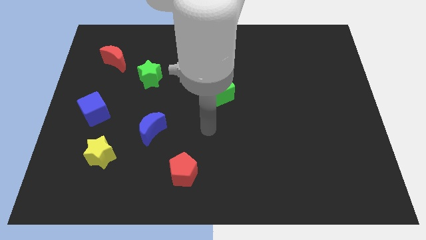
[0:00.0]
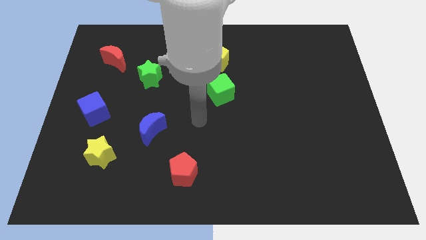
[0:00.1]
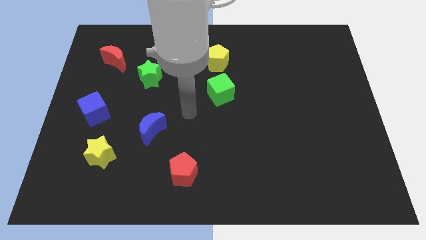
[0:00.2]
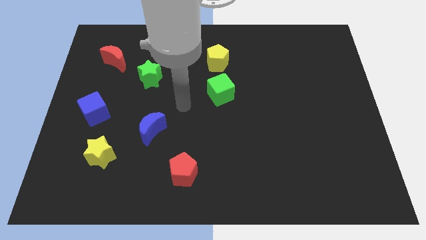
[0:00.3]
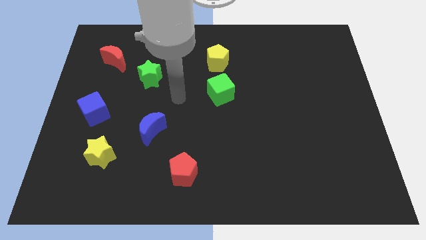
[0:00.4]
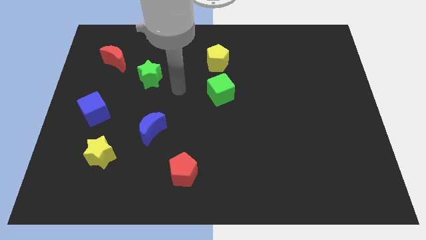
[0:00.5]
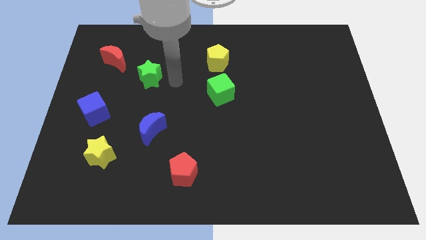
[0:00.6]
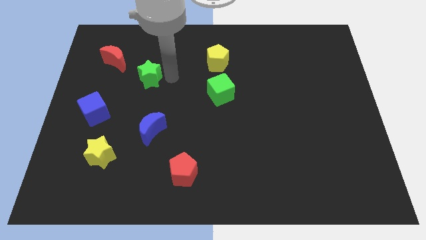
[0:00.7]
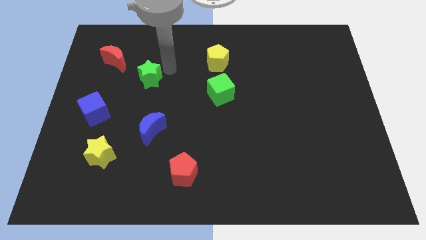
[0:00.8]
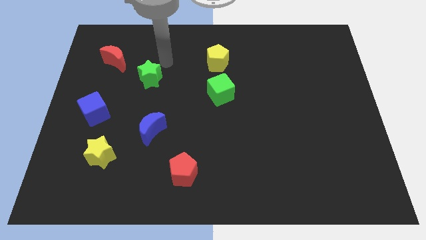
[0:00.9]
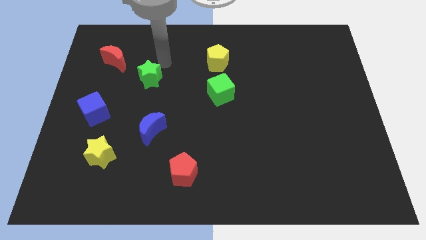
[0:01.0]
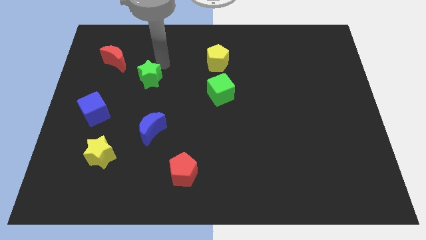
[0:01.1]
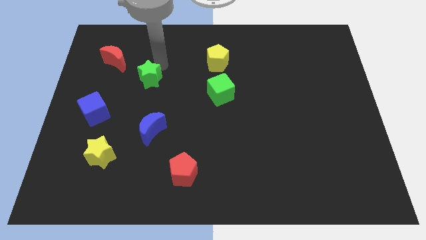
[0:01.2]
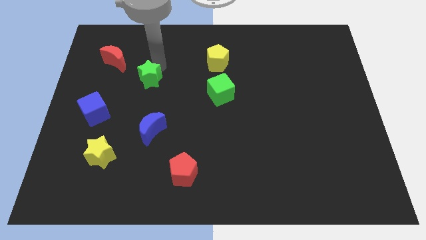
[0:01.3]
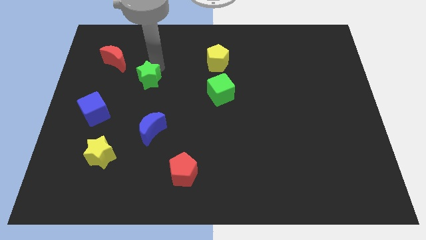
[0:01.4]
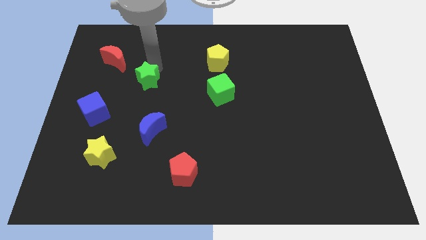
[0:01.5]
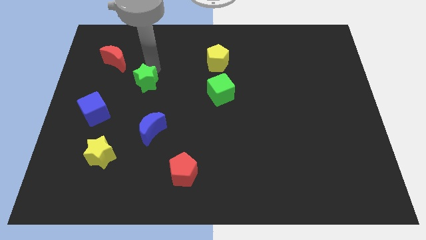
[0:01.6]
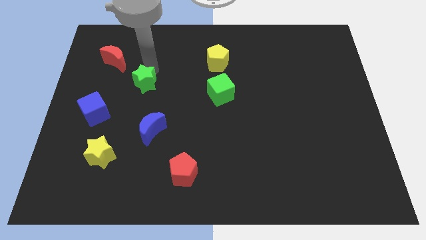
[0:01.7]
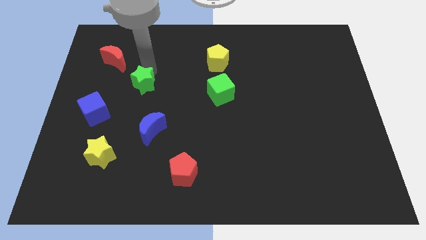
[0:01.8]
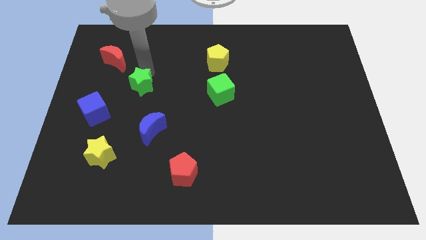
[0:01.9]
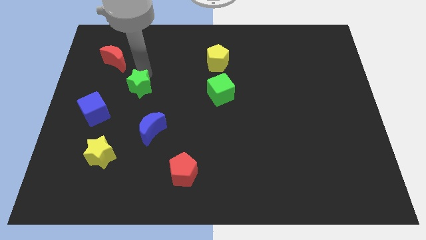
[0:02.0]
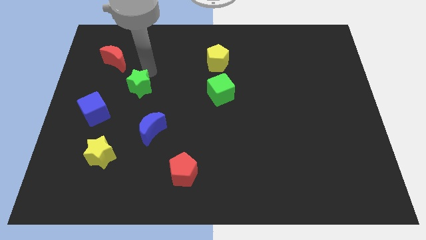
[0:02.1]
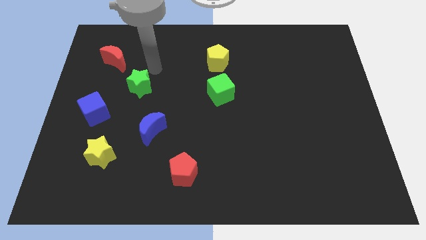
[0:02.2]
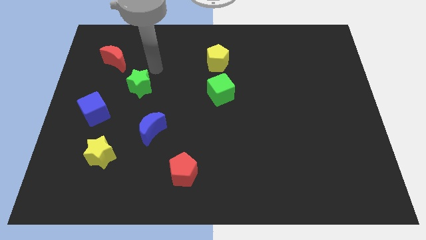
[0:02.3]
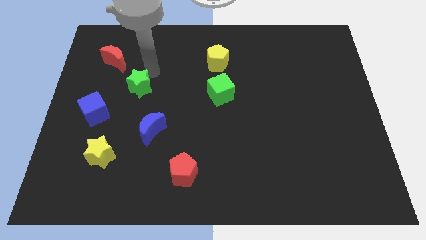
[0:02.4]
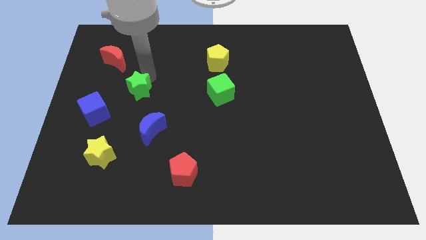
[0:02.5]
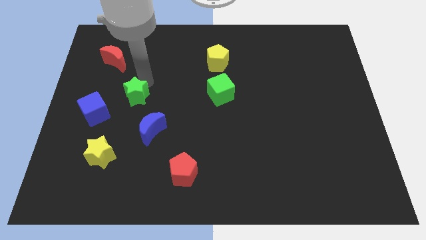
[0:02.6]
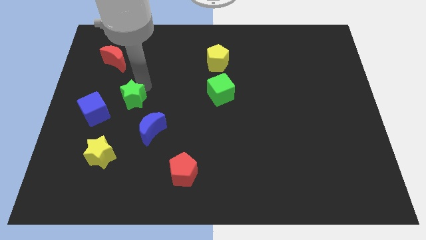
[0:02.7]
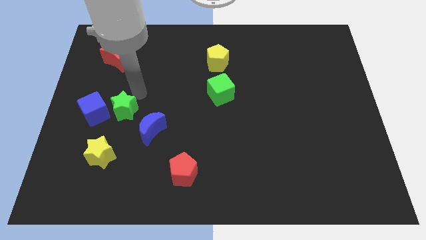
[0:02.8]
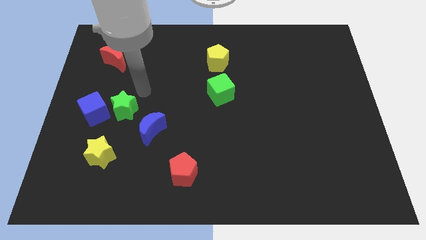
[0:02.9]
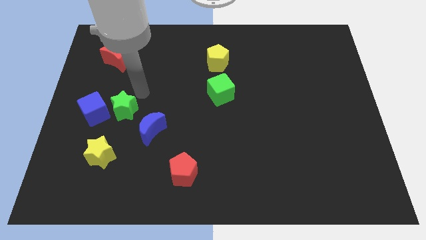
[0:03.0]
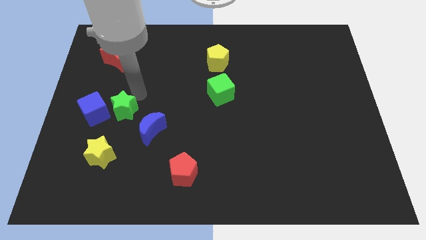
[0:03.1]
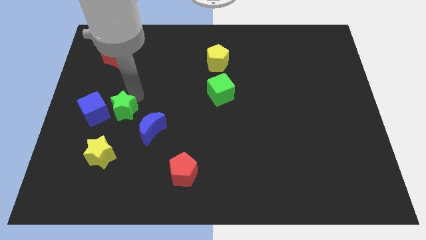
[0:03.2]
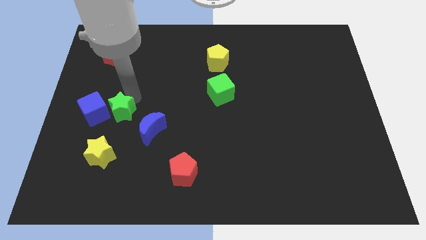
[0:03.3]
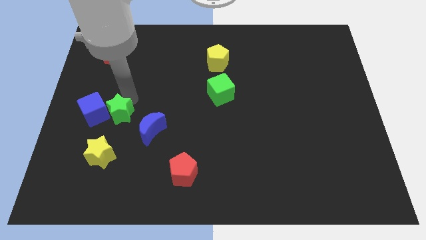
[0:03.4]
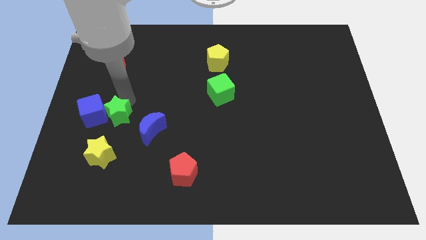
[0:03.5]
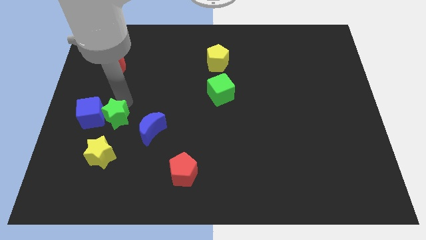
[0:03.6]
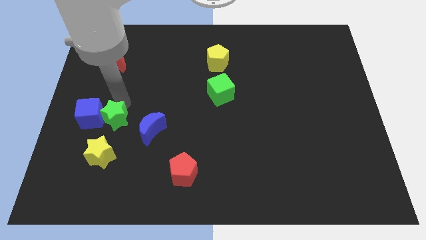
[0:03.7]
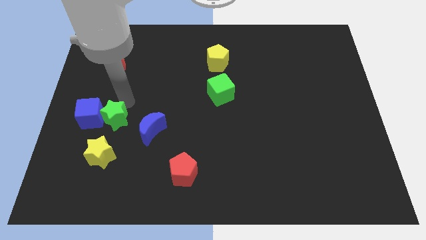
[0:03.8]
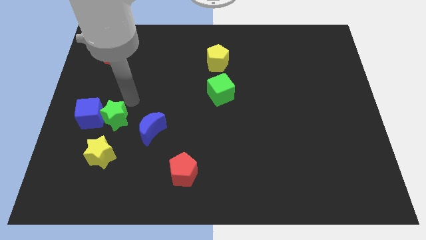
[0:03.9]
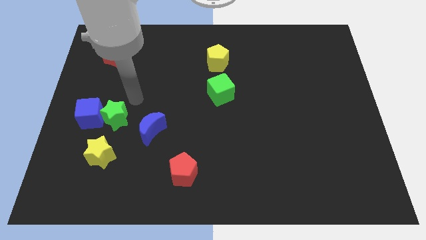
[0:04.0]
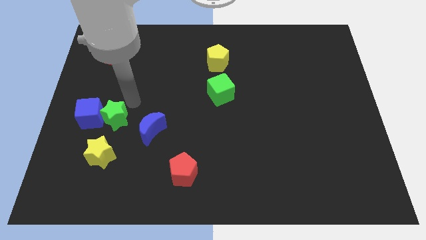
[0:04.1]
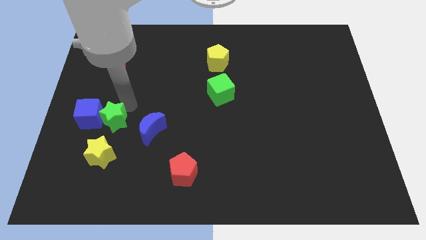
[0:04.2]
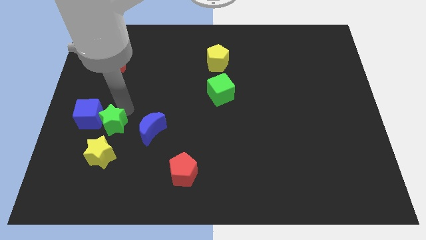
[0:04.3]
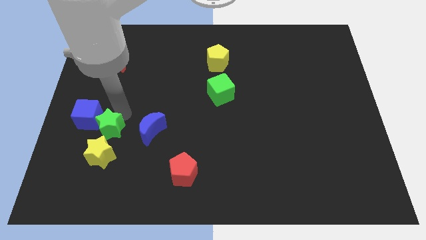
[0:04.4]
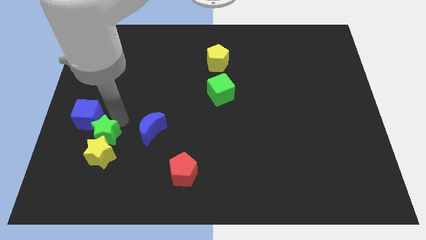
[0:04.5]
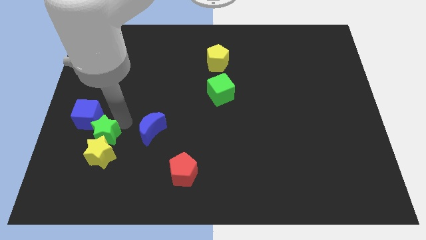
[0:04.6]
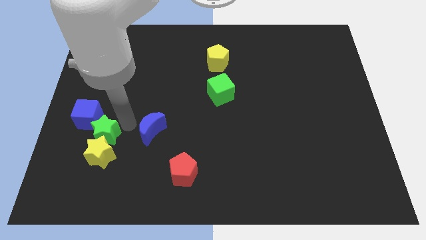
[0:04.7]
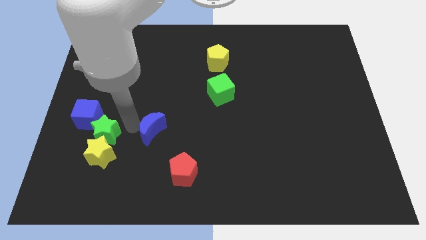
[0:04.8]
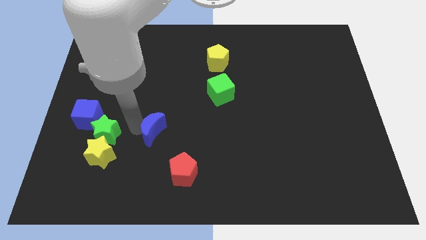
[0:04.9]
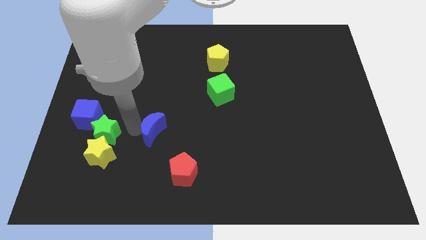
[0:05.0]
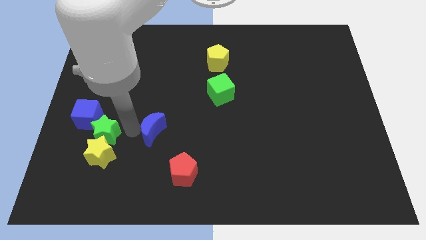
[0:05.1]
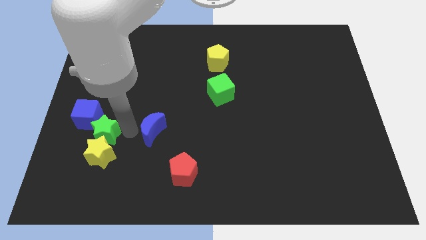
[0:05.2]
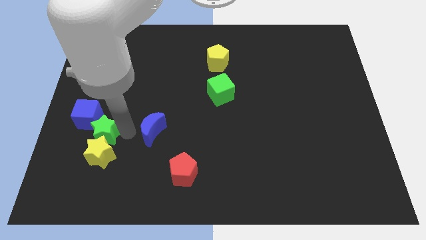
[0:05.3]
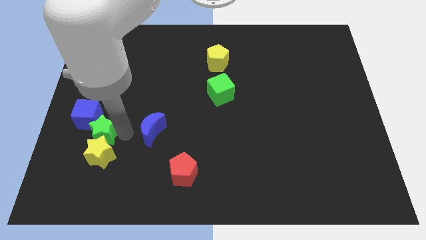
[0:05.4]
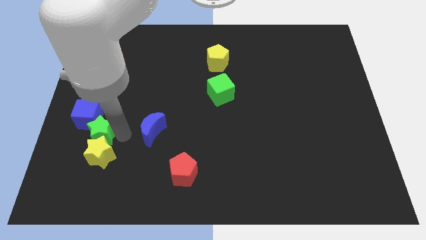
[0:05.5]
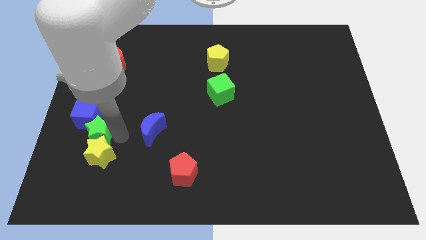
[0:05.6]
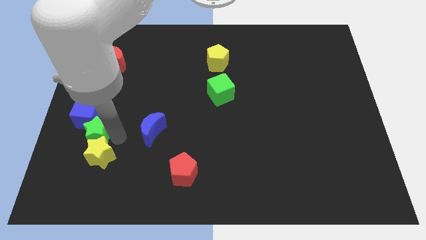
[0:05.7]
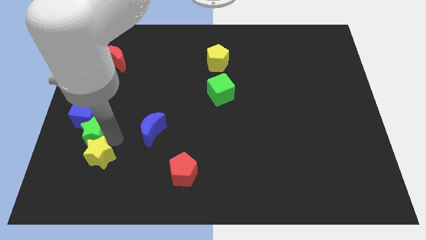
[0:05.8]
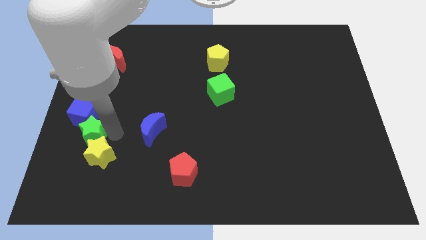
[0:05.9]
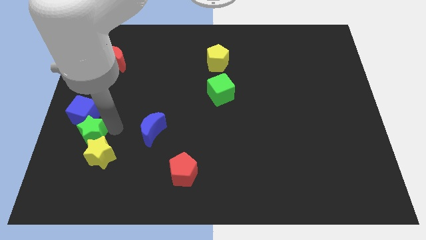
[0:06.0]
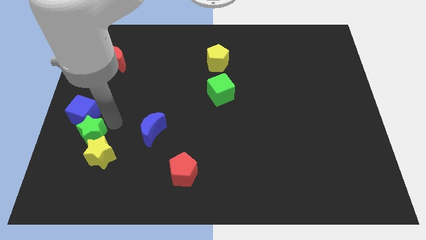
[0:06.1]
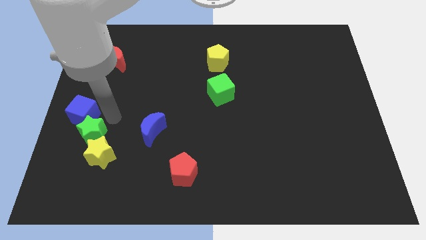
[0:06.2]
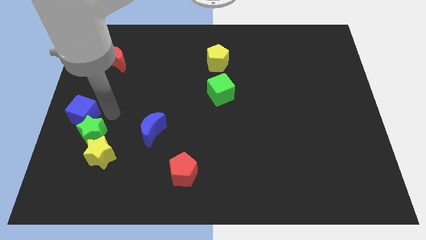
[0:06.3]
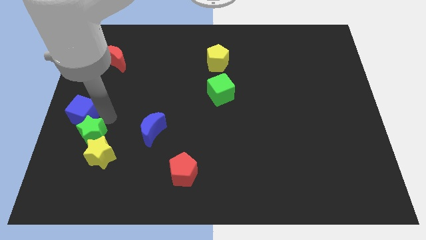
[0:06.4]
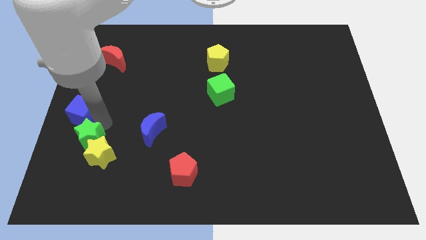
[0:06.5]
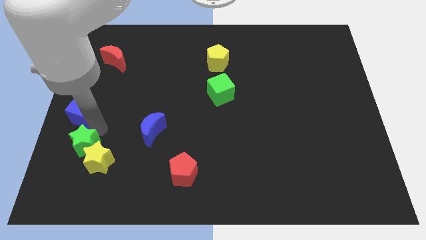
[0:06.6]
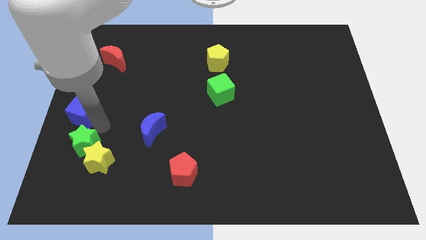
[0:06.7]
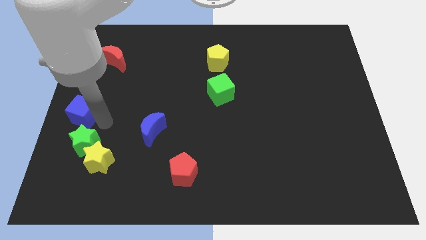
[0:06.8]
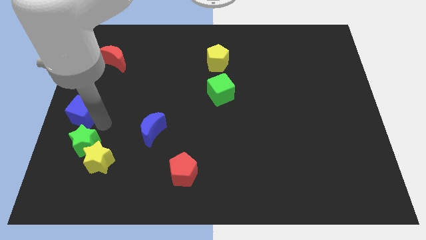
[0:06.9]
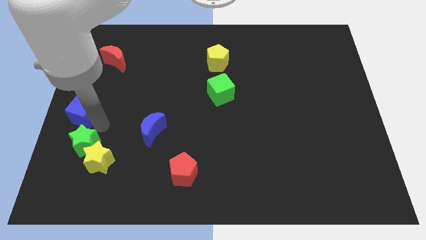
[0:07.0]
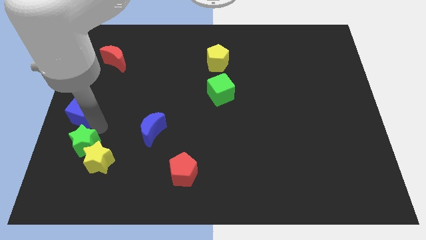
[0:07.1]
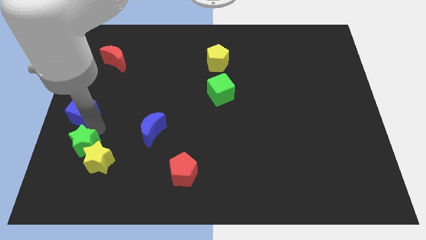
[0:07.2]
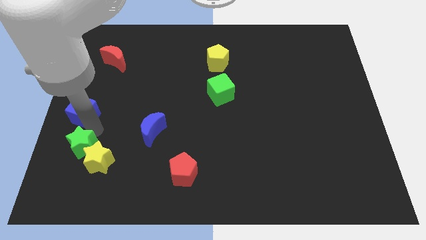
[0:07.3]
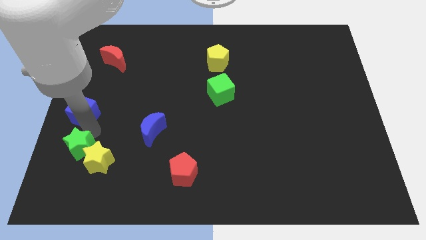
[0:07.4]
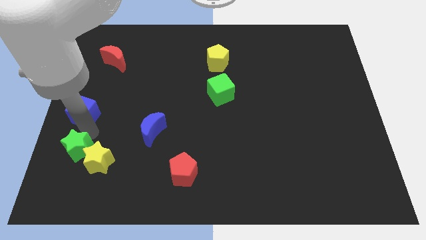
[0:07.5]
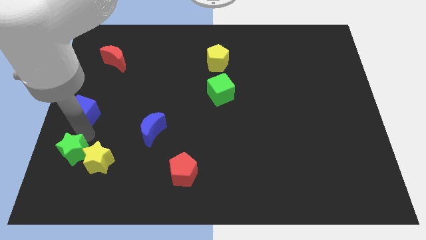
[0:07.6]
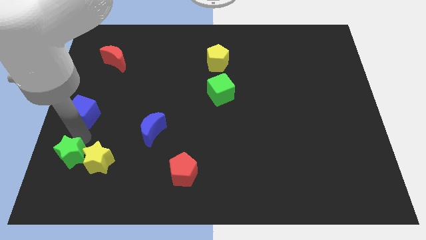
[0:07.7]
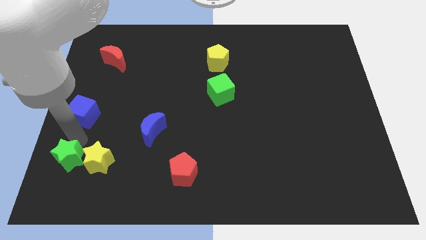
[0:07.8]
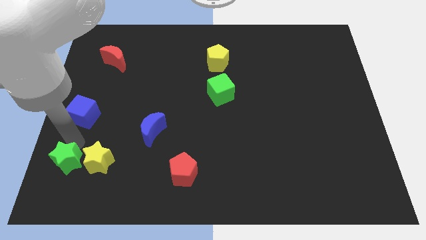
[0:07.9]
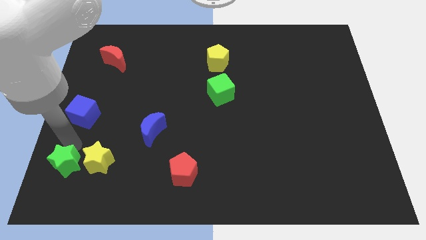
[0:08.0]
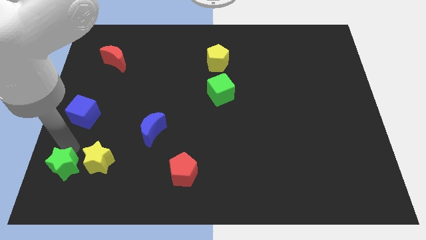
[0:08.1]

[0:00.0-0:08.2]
slide the green star to the bottom left of the board
